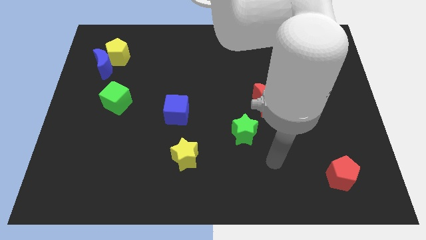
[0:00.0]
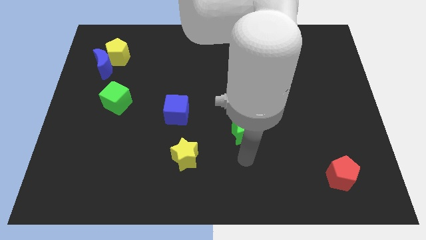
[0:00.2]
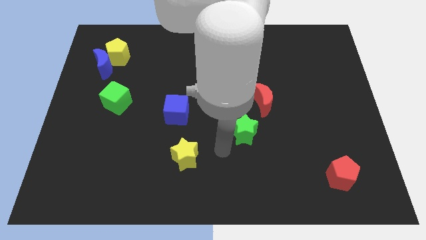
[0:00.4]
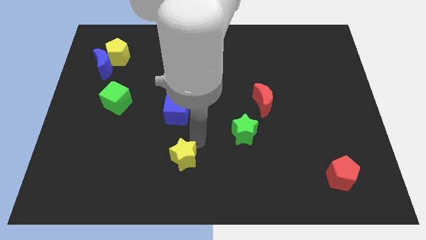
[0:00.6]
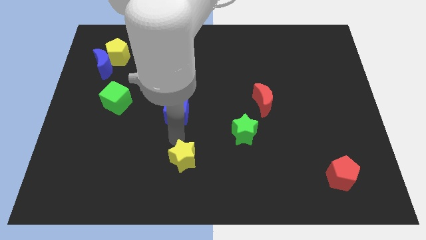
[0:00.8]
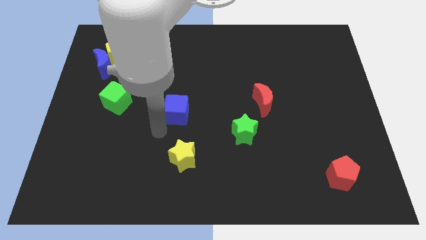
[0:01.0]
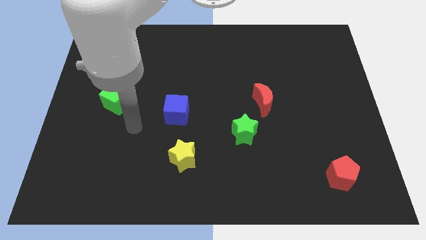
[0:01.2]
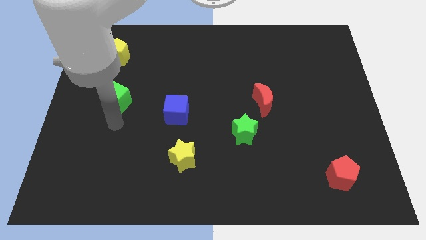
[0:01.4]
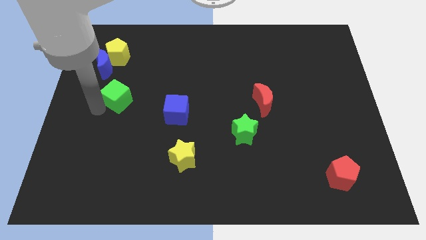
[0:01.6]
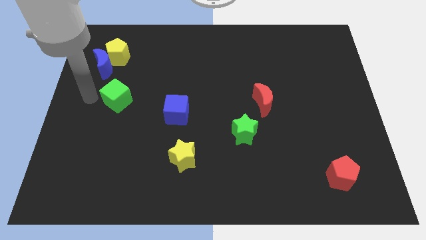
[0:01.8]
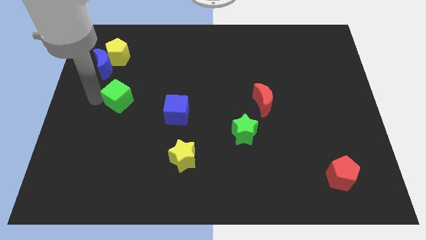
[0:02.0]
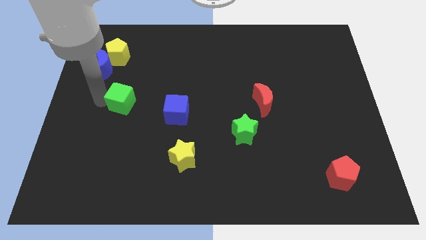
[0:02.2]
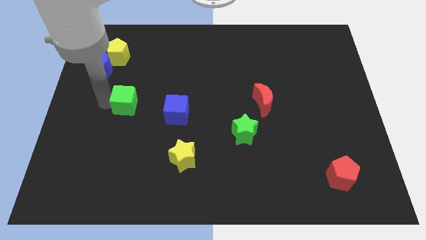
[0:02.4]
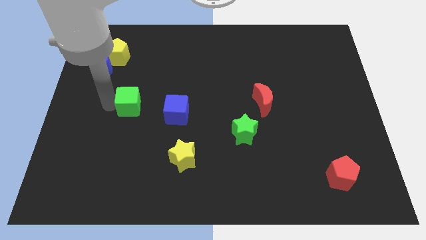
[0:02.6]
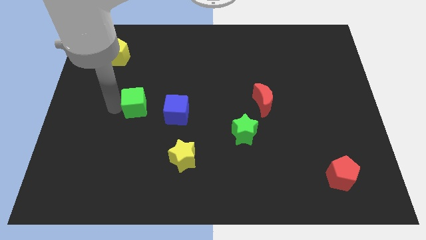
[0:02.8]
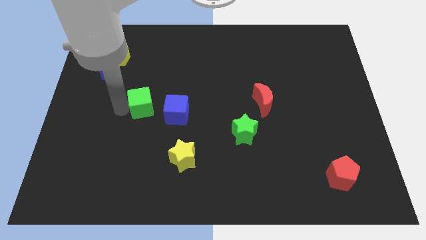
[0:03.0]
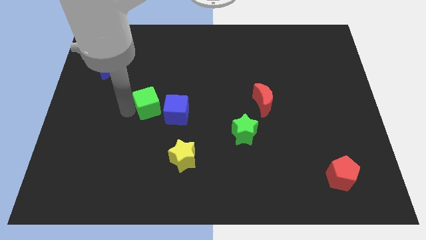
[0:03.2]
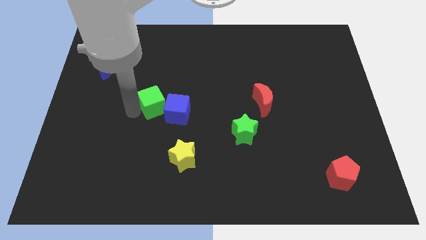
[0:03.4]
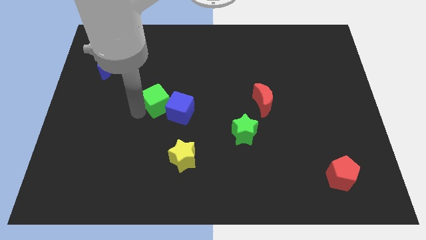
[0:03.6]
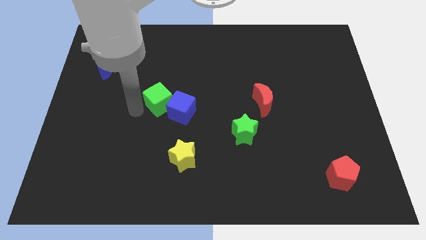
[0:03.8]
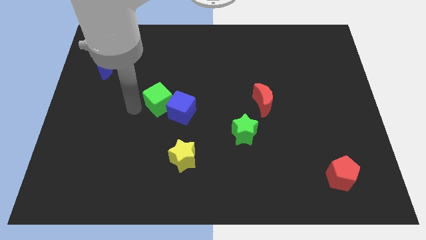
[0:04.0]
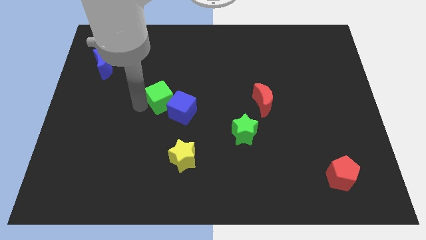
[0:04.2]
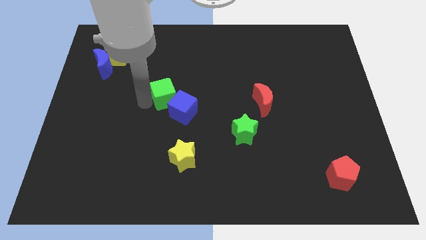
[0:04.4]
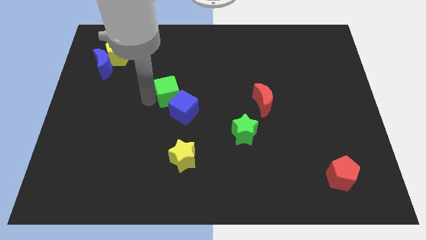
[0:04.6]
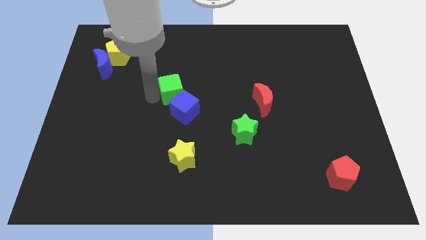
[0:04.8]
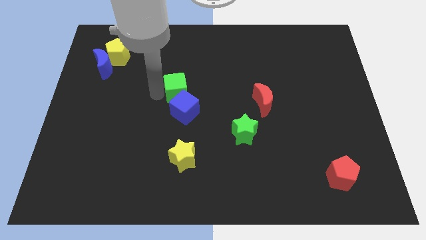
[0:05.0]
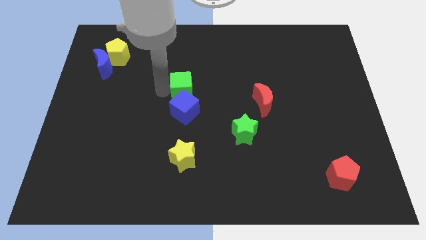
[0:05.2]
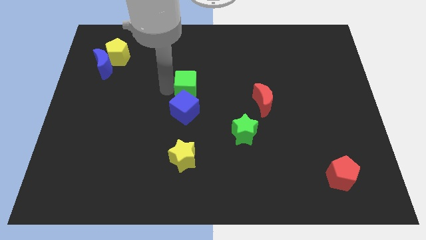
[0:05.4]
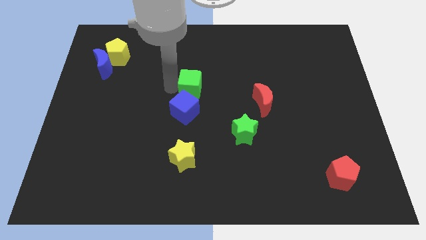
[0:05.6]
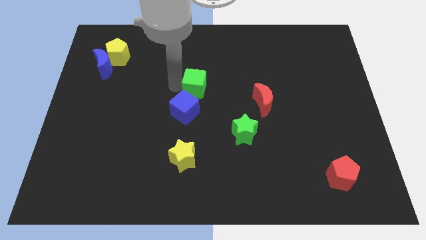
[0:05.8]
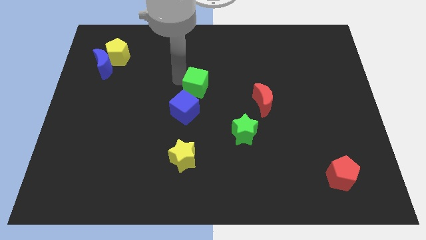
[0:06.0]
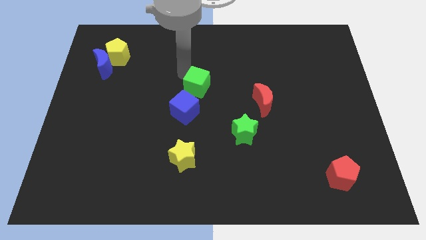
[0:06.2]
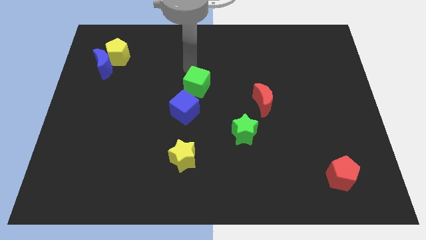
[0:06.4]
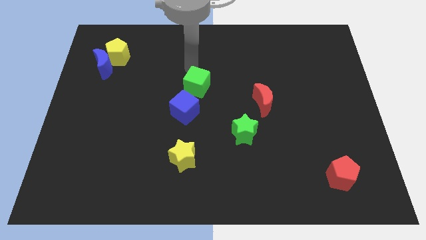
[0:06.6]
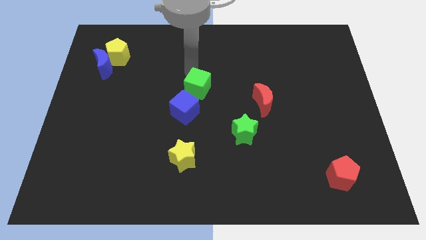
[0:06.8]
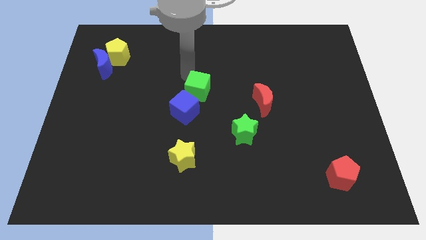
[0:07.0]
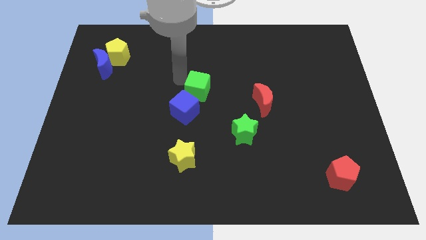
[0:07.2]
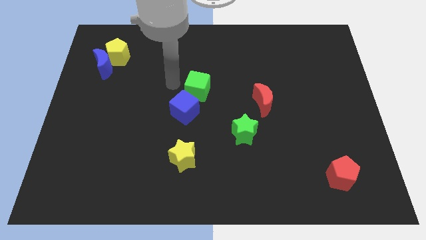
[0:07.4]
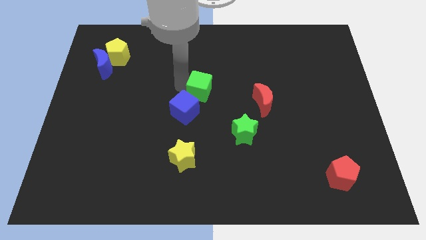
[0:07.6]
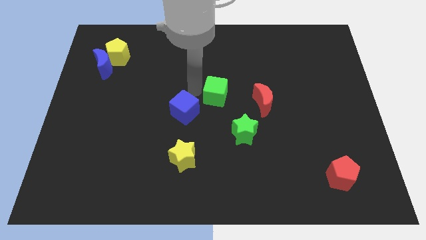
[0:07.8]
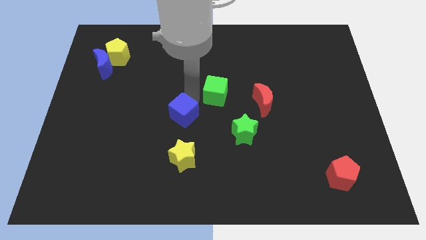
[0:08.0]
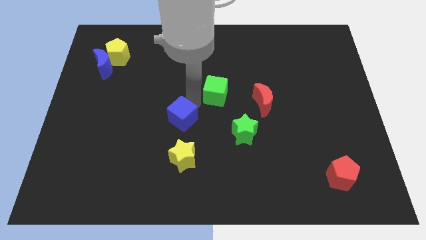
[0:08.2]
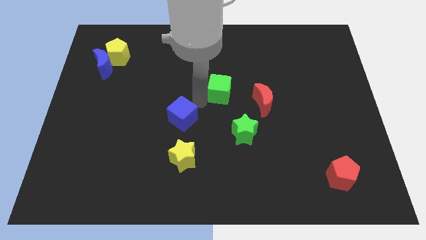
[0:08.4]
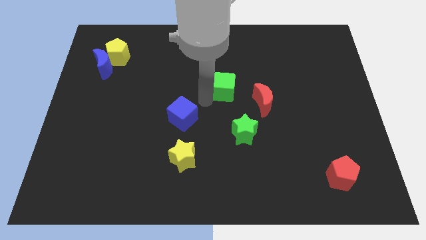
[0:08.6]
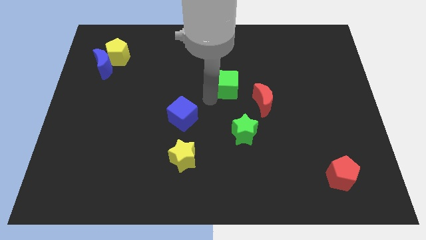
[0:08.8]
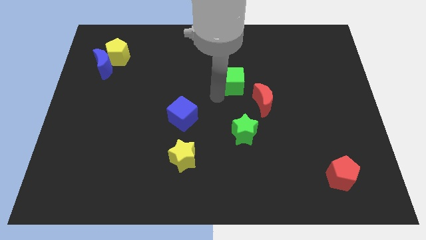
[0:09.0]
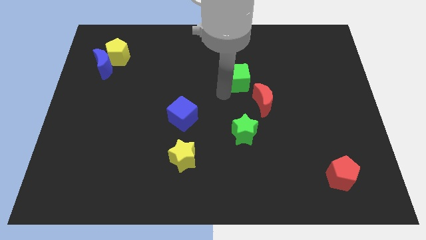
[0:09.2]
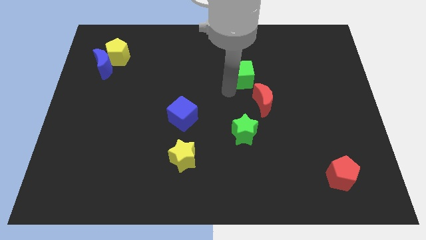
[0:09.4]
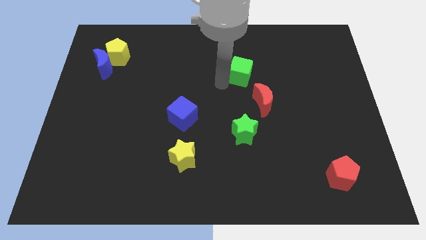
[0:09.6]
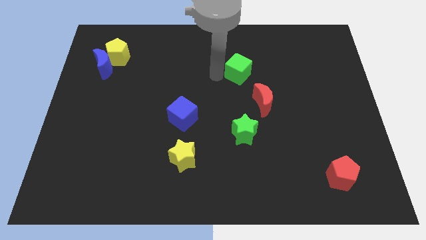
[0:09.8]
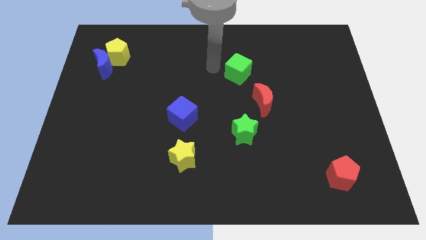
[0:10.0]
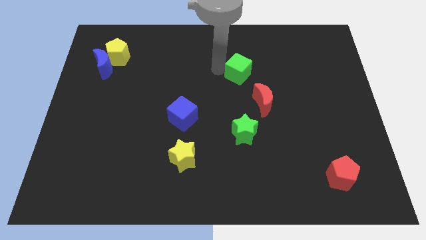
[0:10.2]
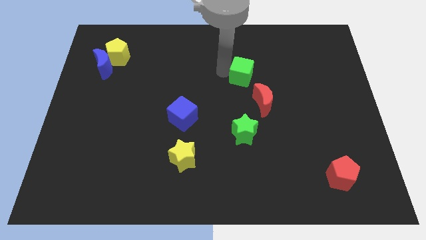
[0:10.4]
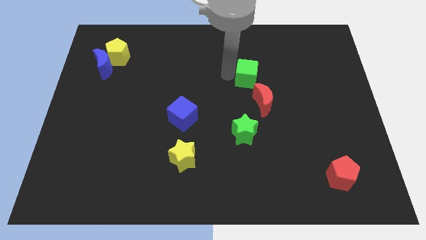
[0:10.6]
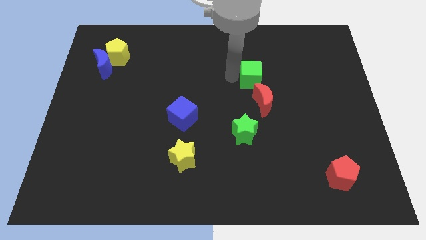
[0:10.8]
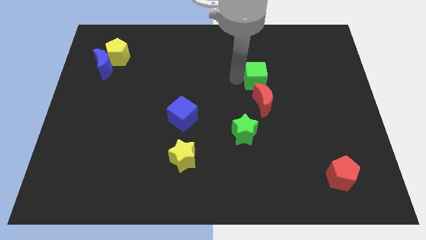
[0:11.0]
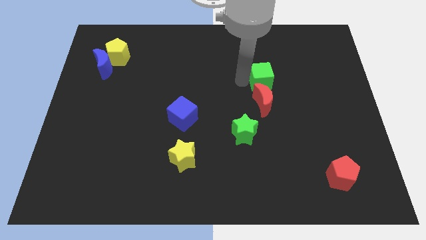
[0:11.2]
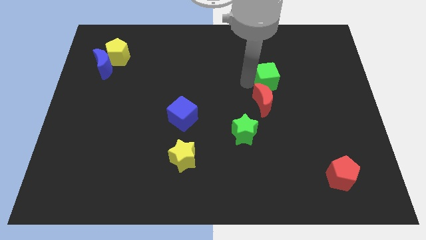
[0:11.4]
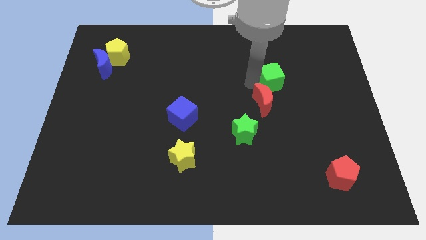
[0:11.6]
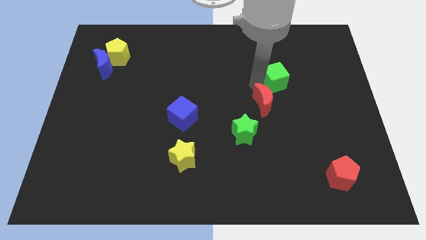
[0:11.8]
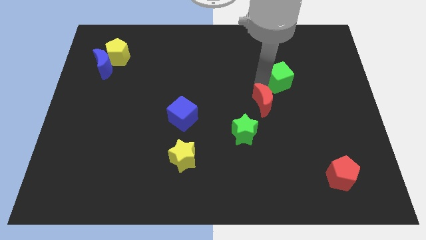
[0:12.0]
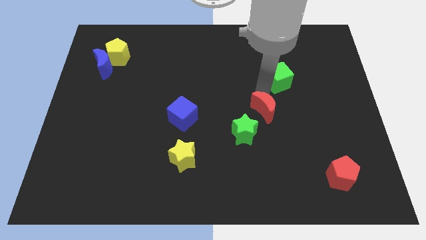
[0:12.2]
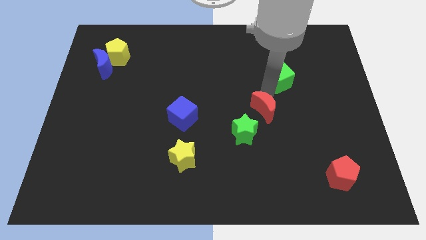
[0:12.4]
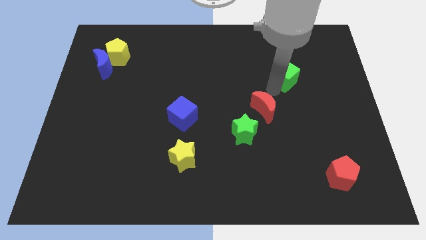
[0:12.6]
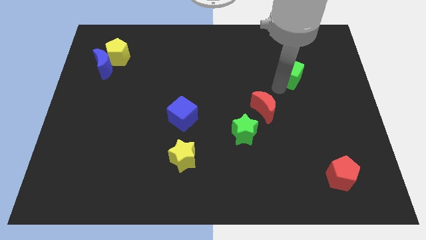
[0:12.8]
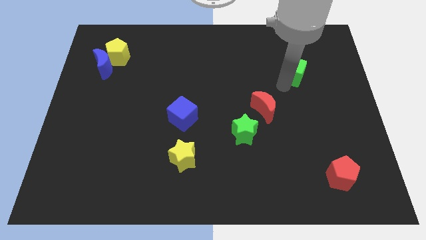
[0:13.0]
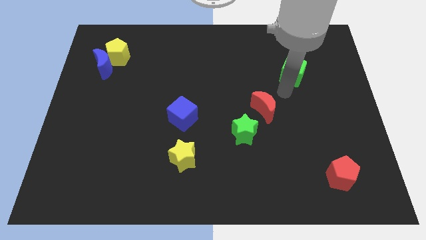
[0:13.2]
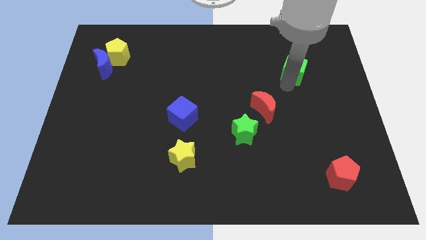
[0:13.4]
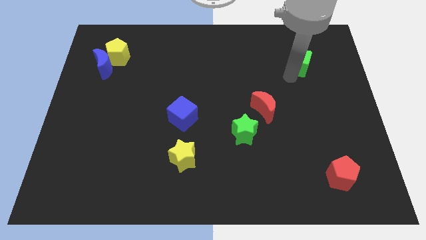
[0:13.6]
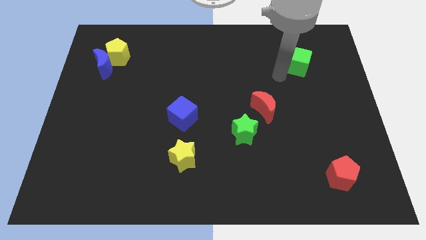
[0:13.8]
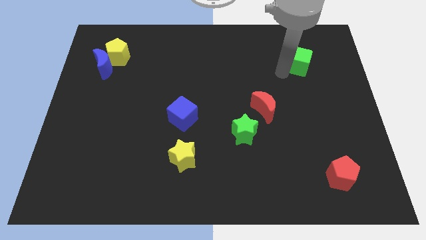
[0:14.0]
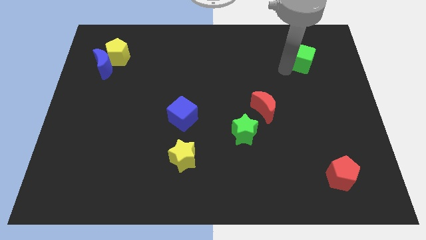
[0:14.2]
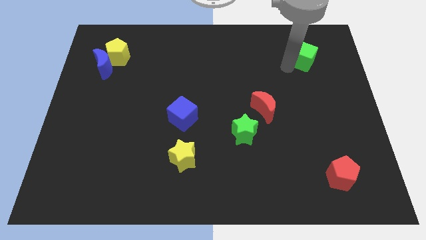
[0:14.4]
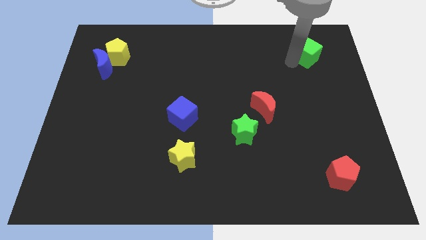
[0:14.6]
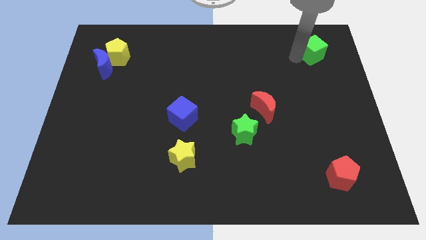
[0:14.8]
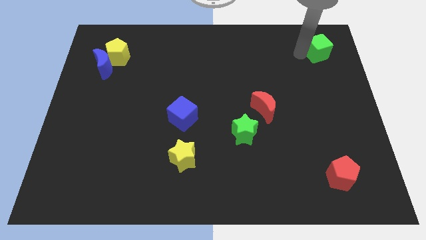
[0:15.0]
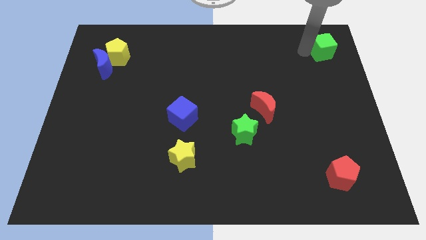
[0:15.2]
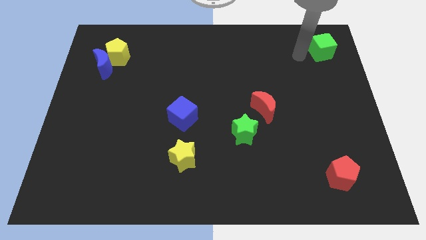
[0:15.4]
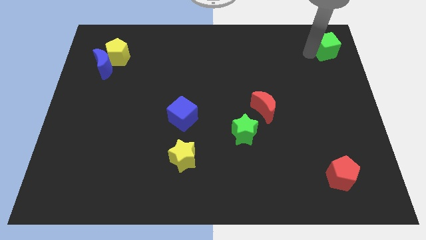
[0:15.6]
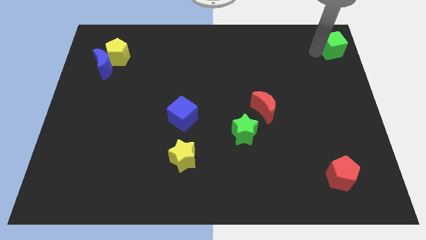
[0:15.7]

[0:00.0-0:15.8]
push the green cube to the top right of the board
